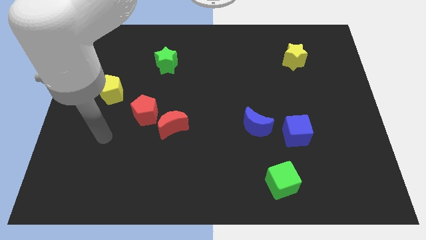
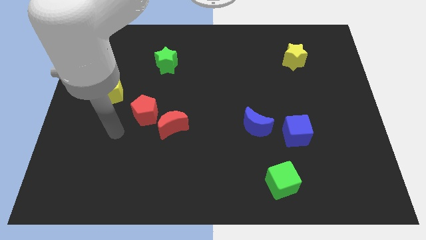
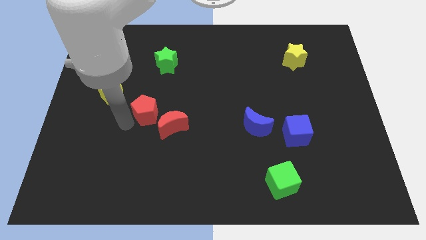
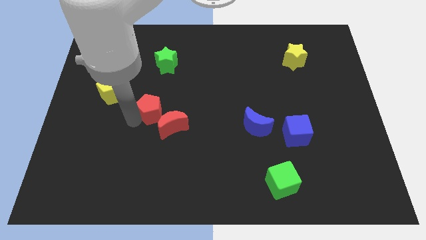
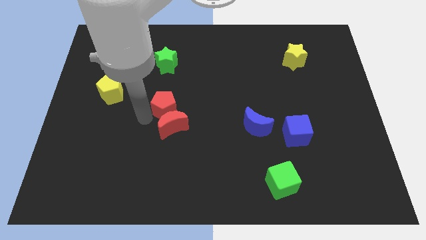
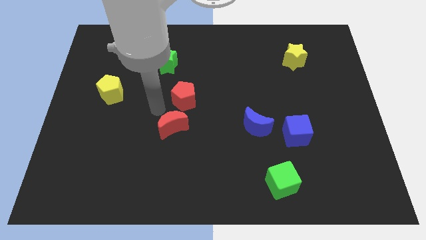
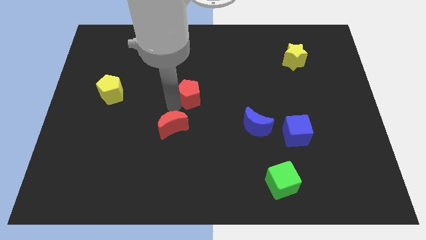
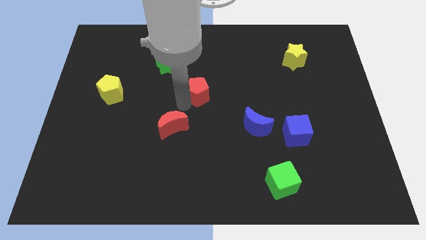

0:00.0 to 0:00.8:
move the red moon away from the red pentagon

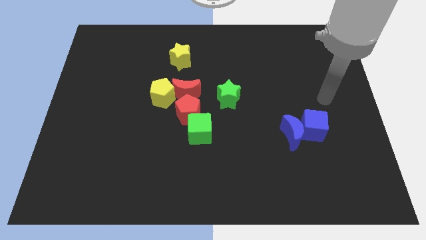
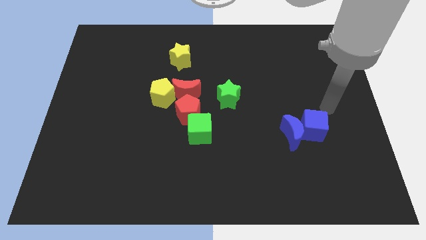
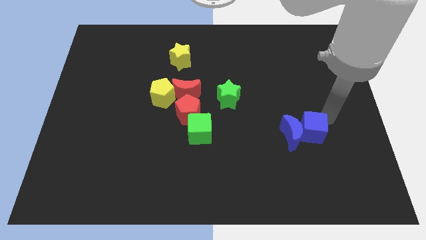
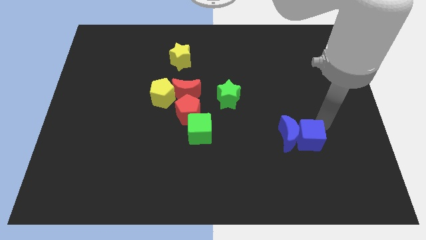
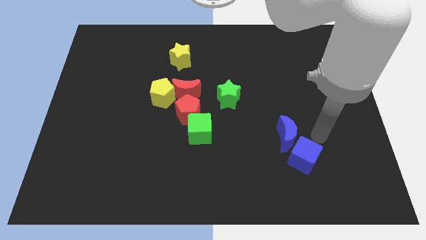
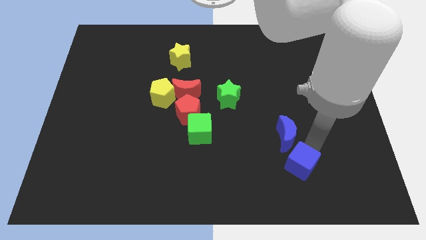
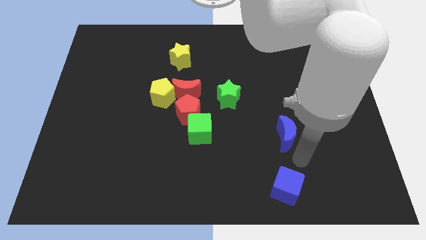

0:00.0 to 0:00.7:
move the blue moon away from the blue cube

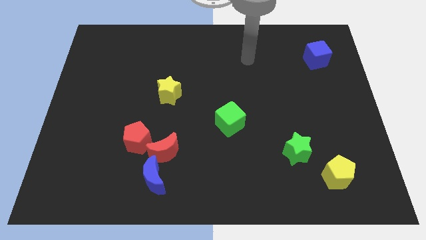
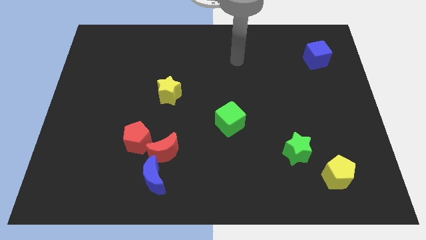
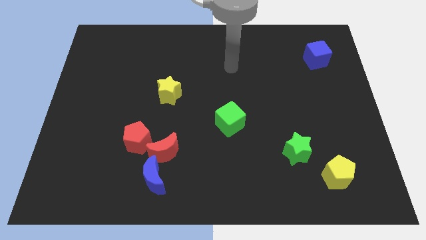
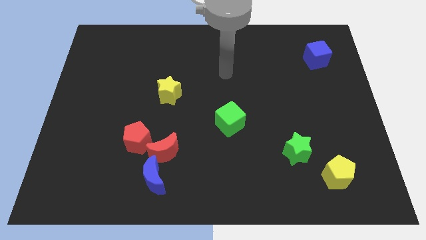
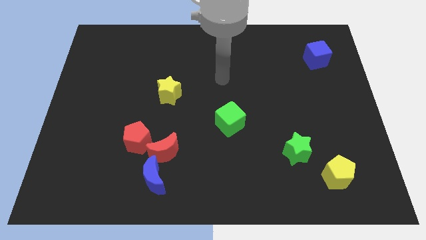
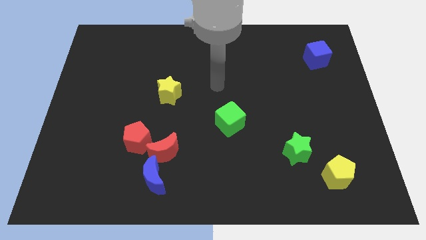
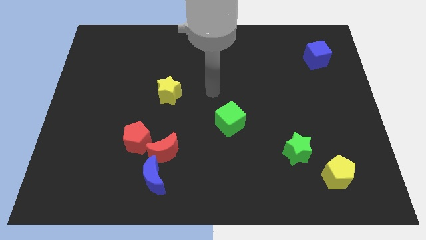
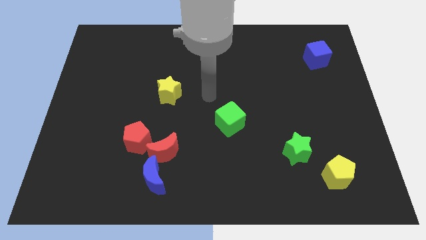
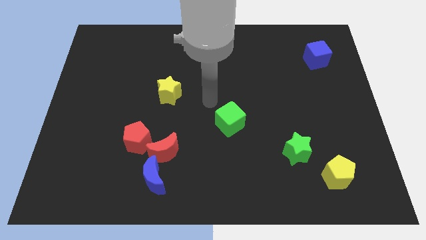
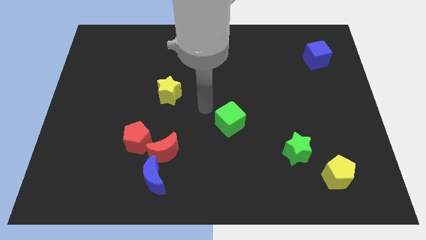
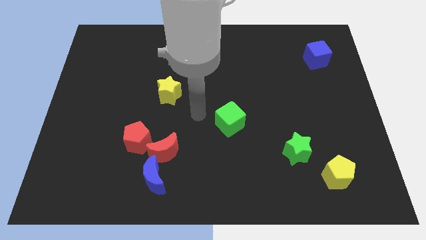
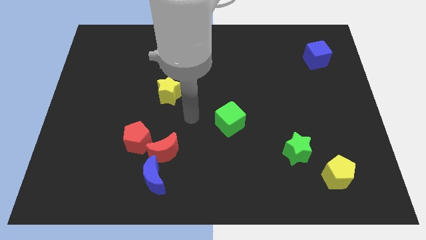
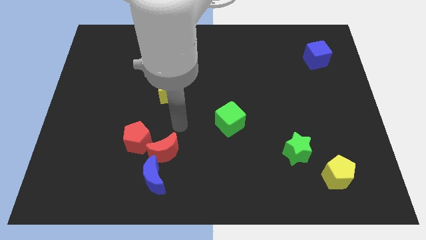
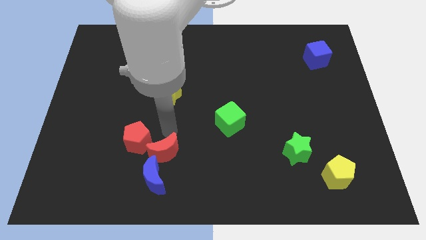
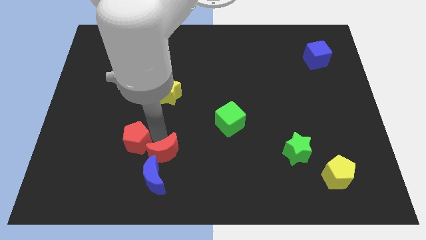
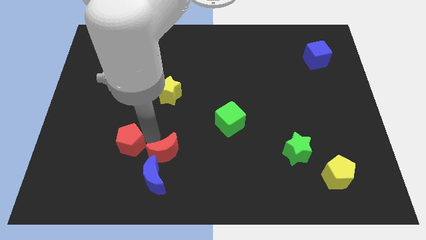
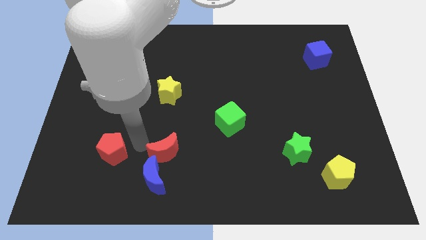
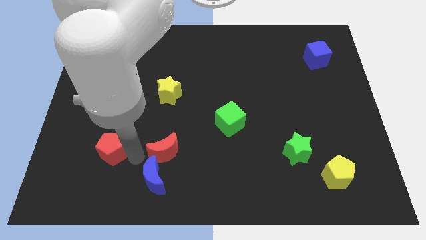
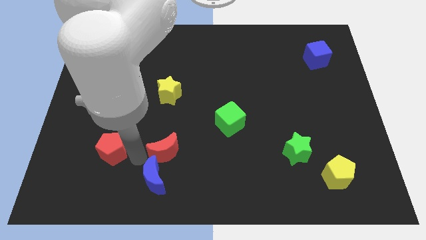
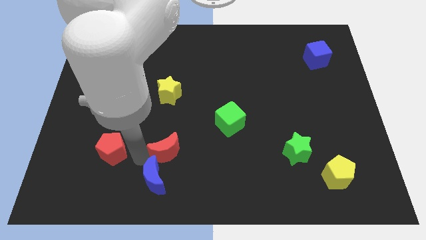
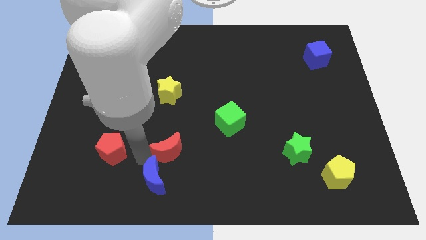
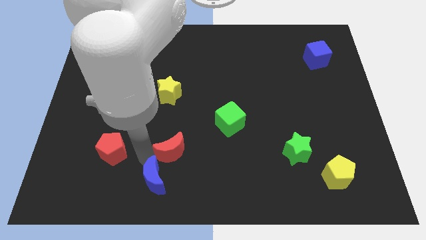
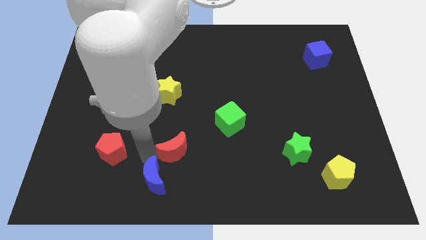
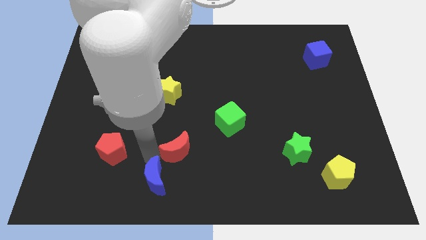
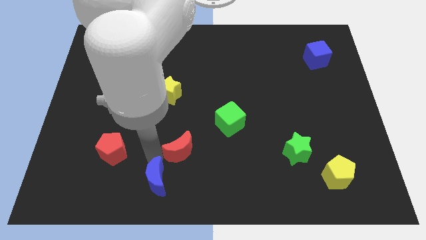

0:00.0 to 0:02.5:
separate the red moon from the blue moon and red pentagon

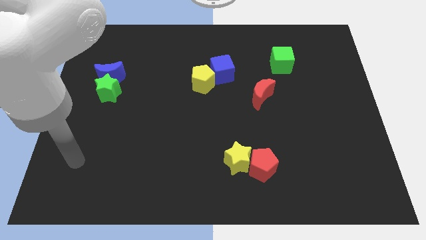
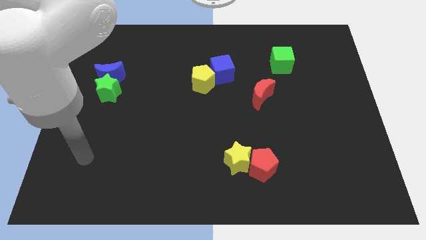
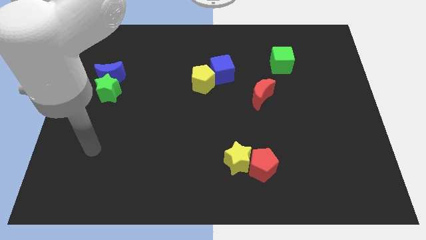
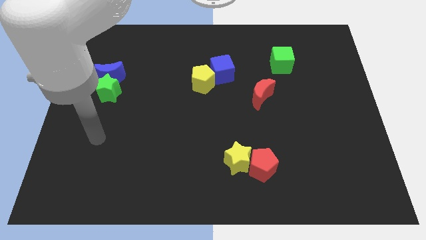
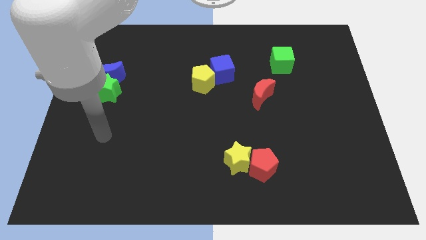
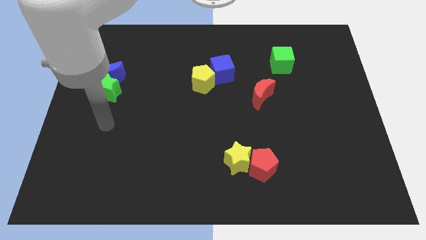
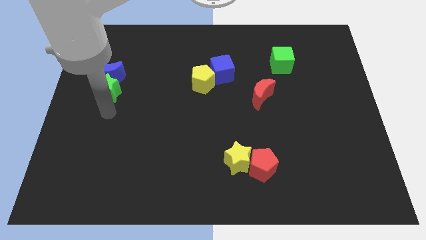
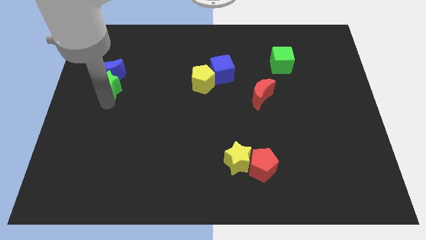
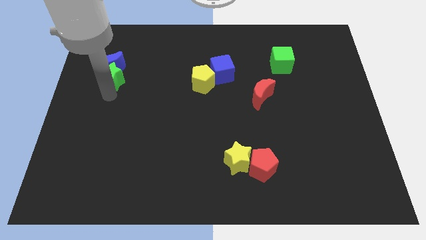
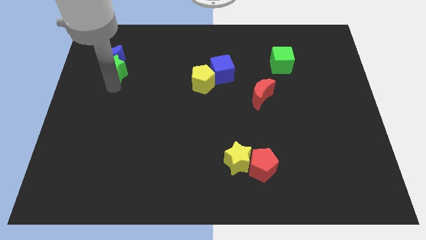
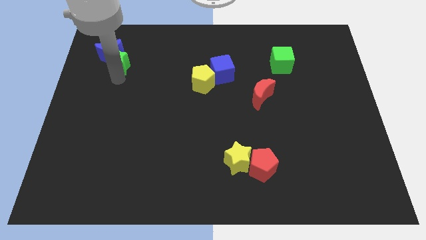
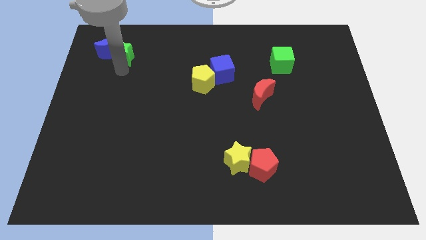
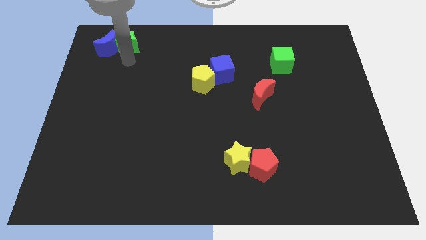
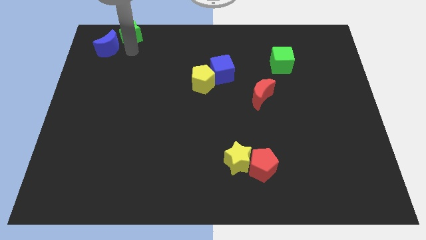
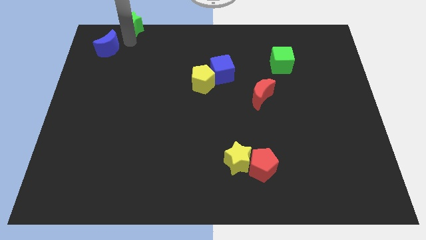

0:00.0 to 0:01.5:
move the blue moon away from the green star

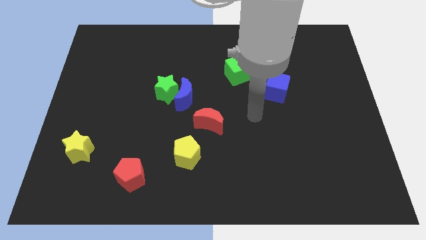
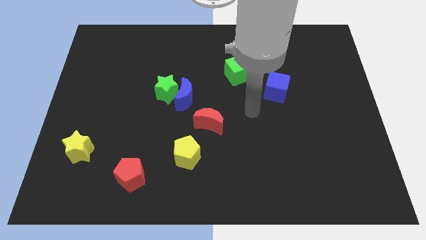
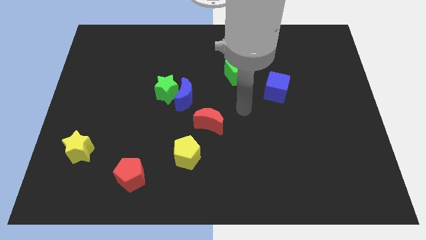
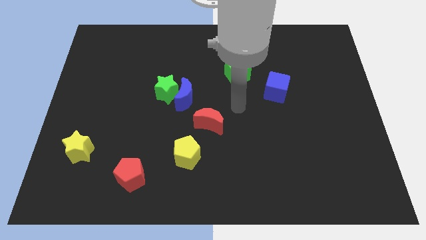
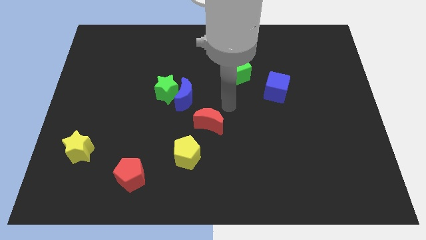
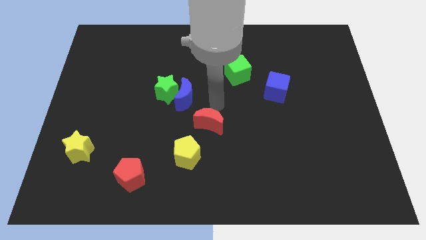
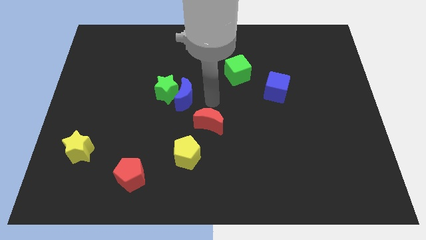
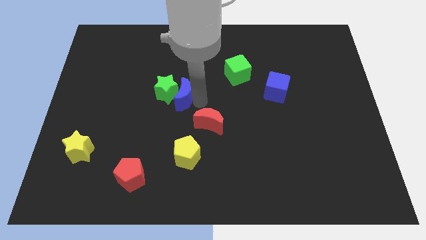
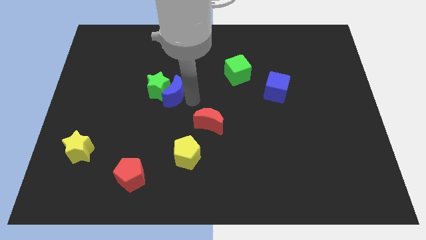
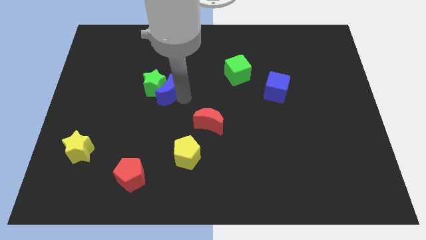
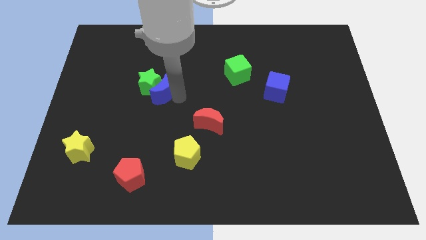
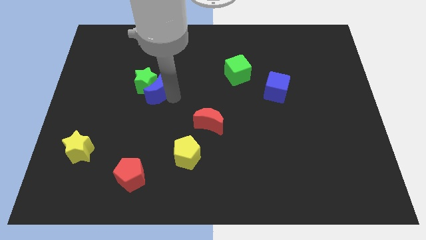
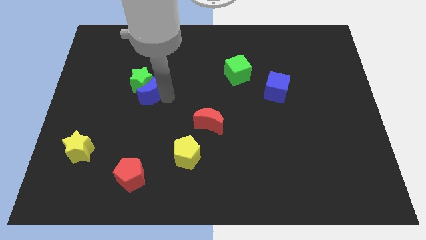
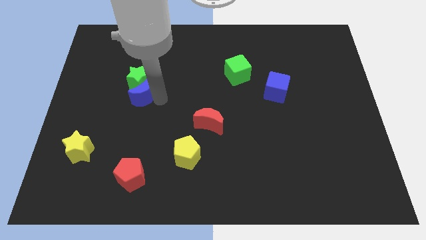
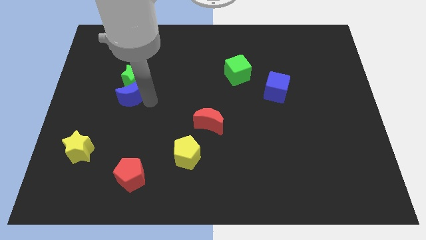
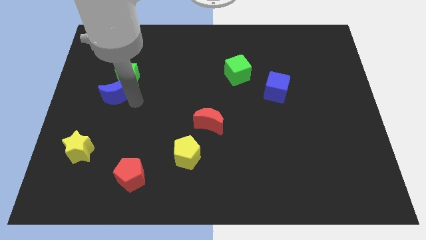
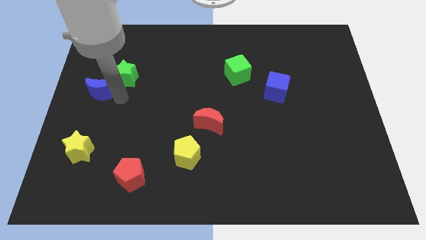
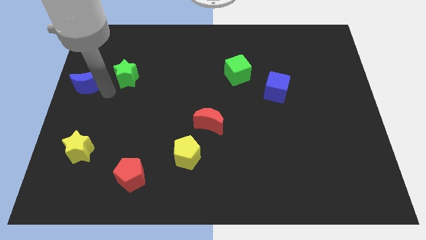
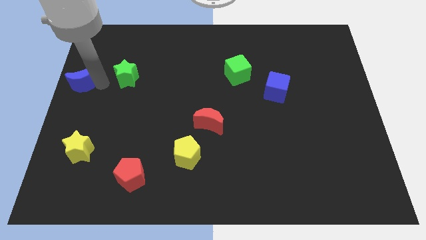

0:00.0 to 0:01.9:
separate the green star from the blue moon

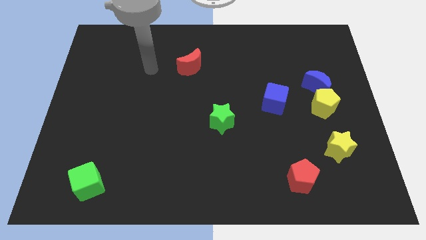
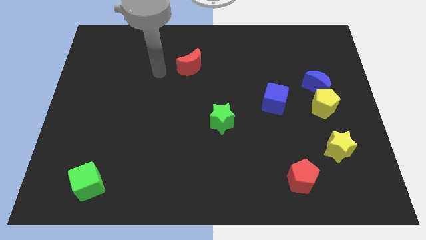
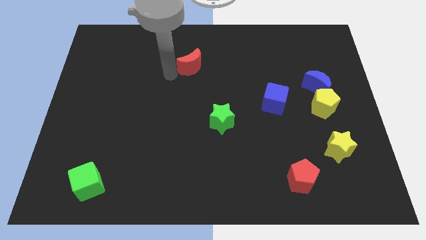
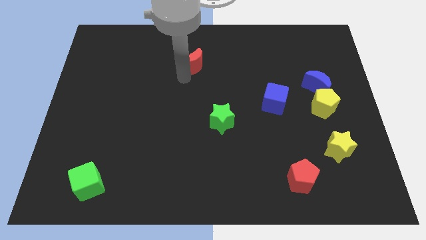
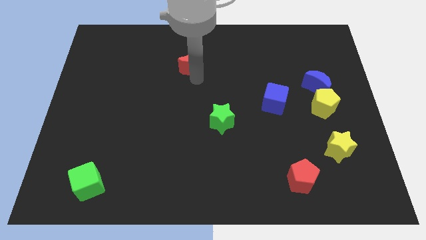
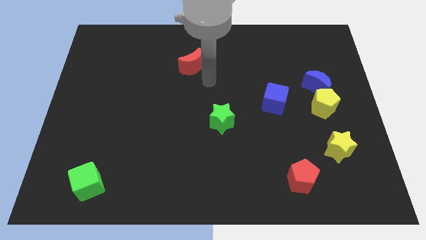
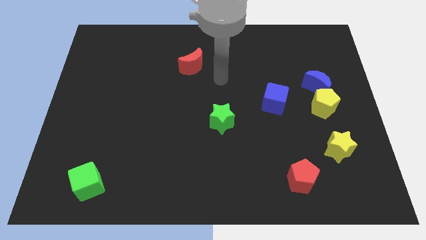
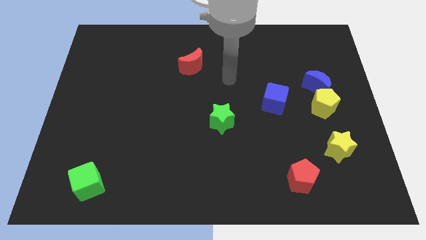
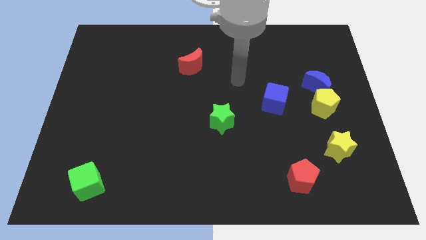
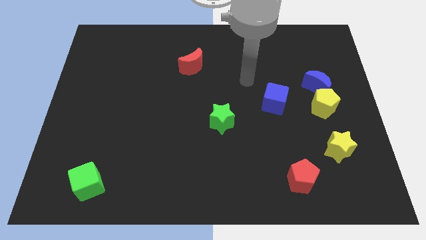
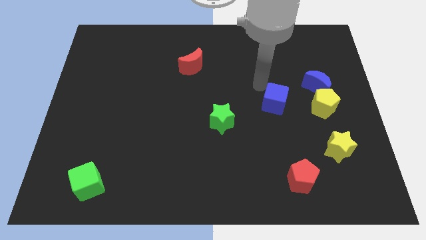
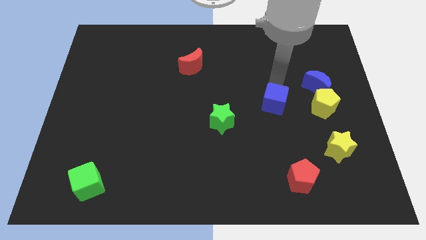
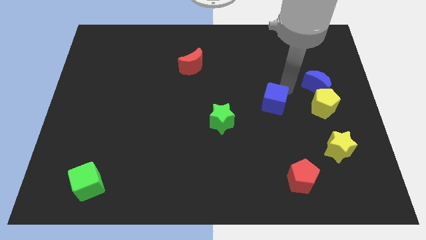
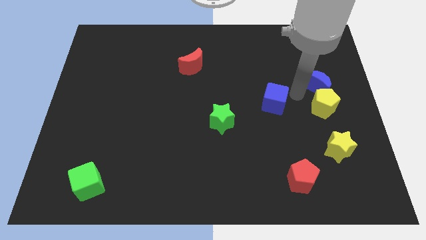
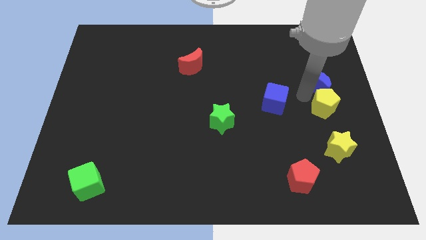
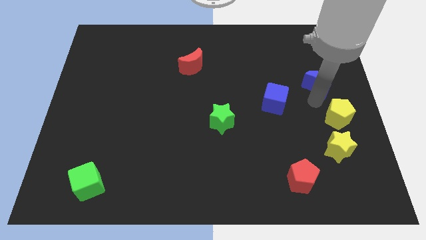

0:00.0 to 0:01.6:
move the blue moon away from the yellow pentagon
